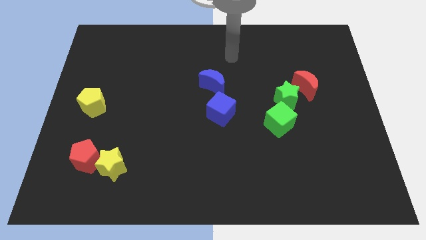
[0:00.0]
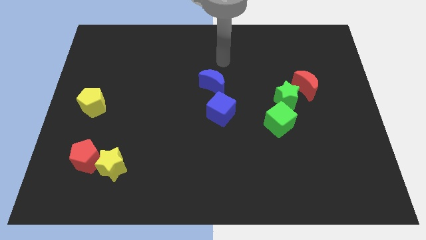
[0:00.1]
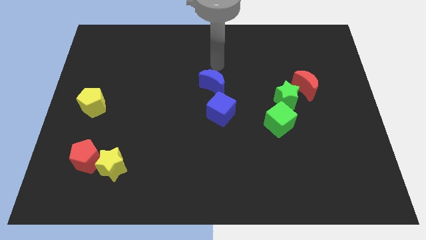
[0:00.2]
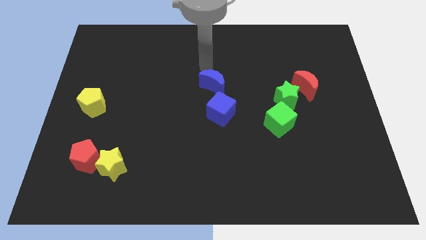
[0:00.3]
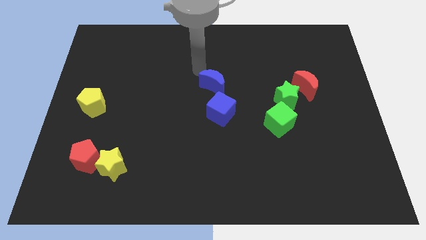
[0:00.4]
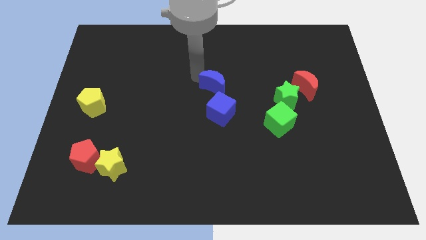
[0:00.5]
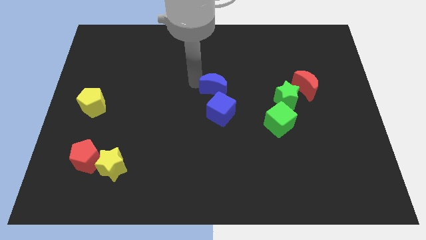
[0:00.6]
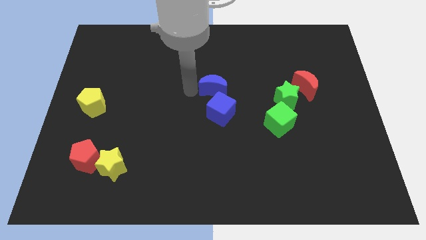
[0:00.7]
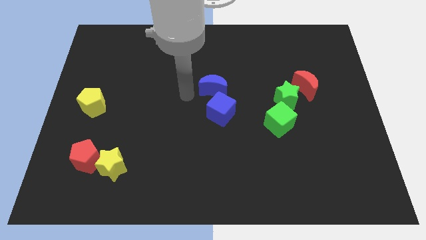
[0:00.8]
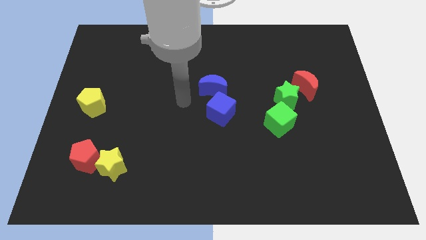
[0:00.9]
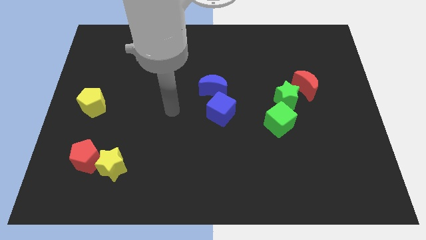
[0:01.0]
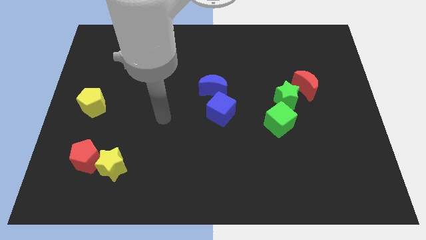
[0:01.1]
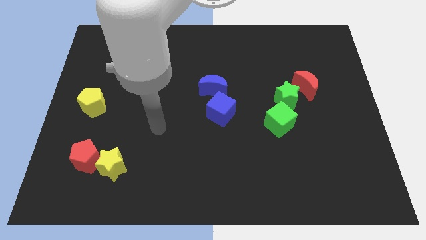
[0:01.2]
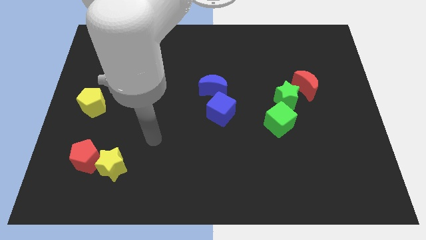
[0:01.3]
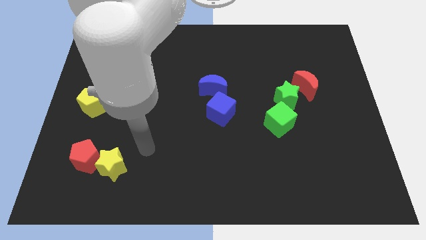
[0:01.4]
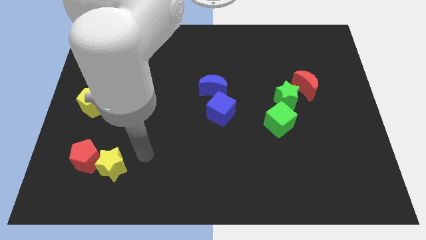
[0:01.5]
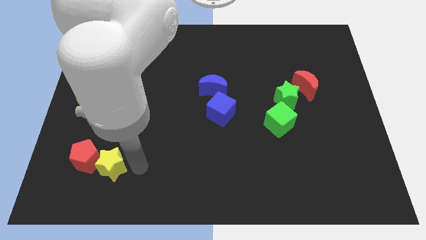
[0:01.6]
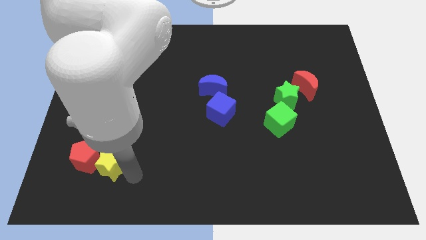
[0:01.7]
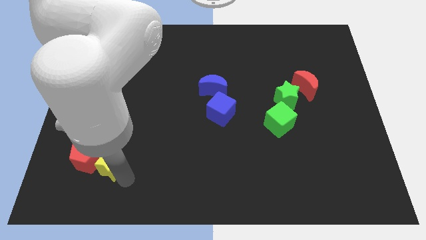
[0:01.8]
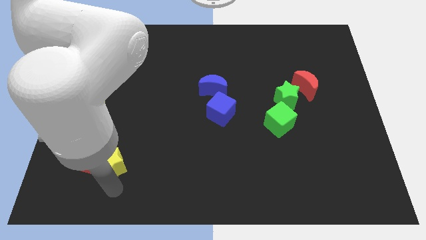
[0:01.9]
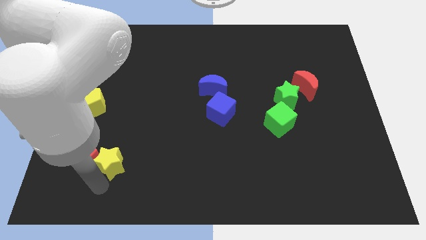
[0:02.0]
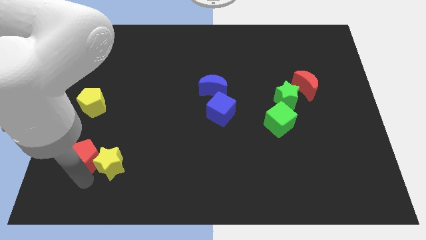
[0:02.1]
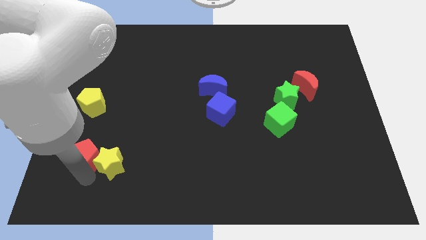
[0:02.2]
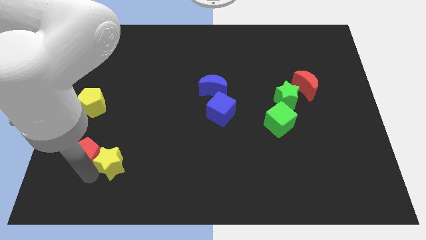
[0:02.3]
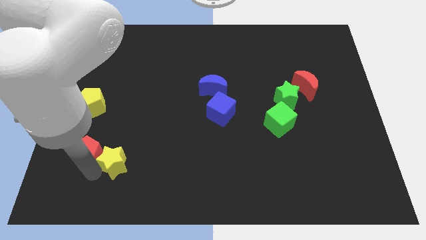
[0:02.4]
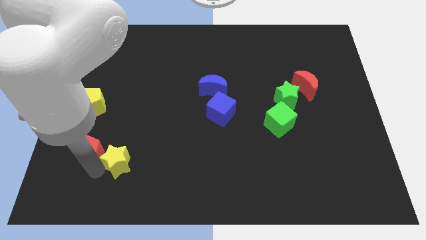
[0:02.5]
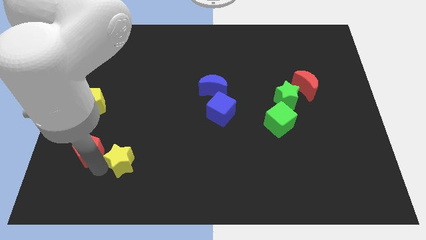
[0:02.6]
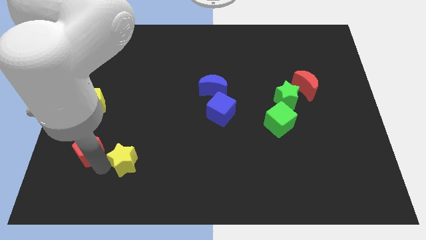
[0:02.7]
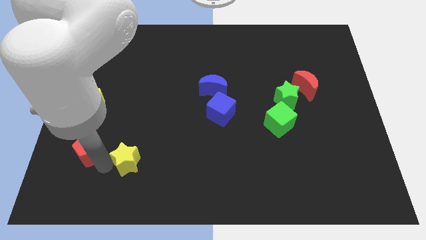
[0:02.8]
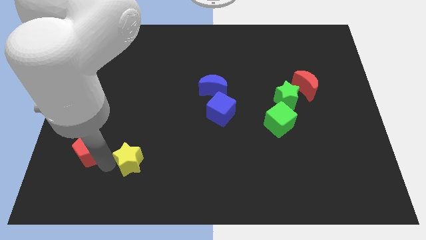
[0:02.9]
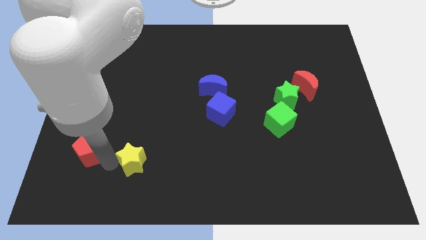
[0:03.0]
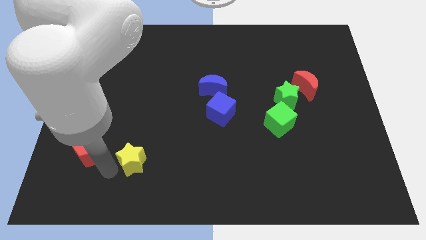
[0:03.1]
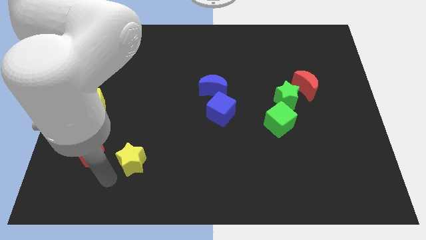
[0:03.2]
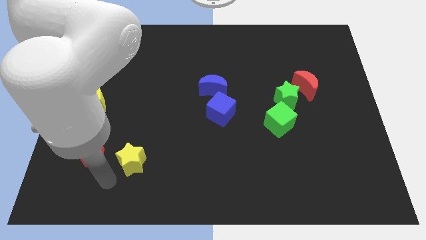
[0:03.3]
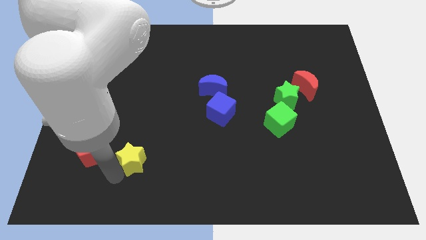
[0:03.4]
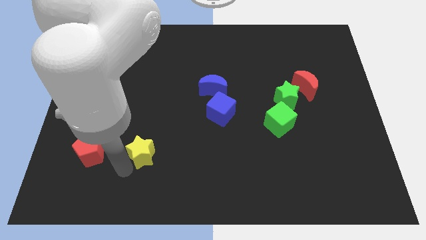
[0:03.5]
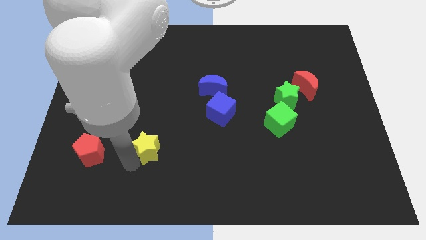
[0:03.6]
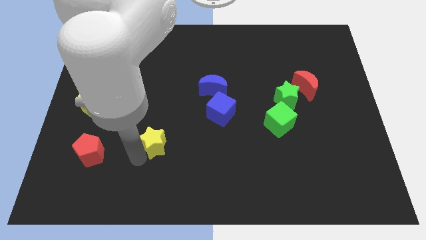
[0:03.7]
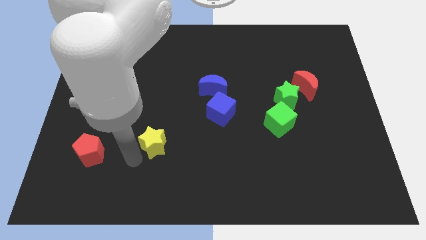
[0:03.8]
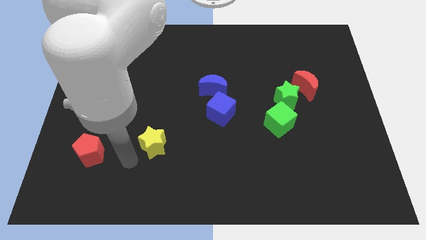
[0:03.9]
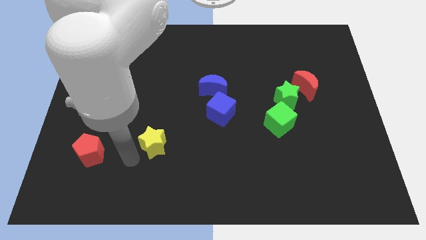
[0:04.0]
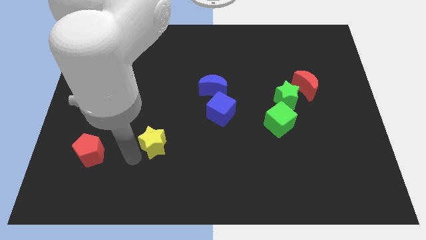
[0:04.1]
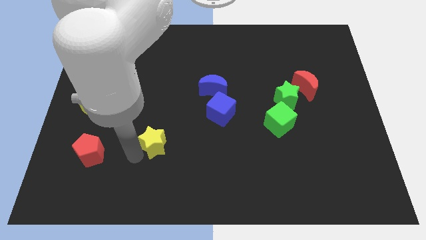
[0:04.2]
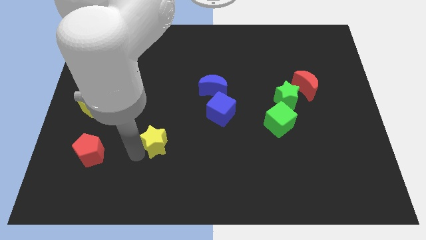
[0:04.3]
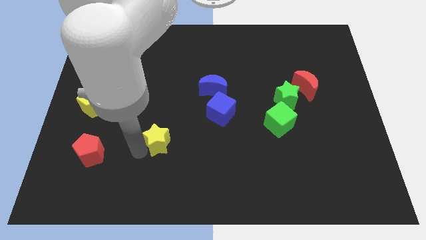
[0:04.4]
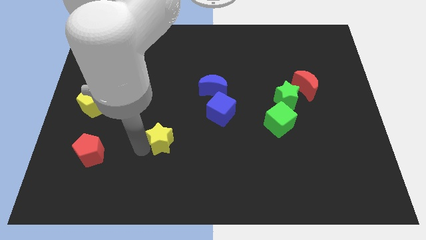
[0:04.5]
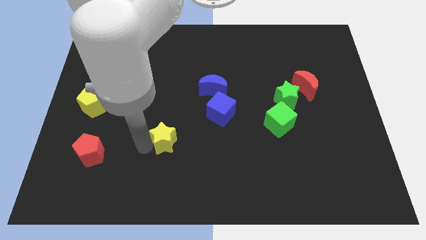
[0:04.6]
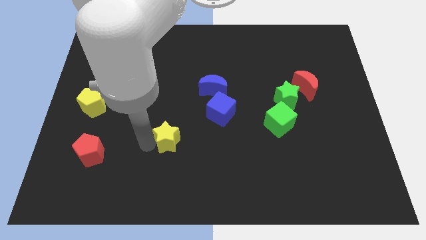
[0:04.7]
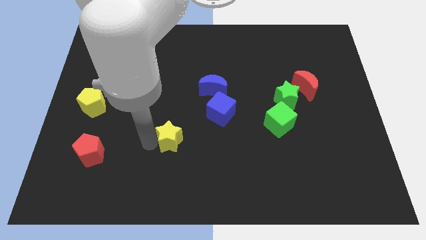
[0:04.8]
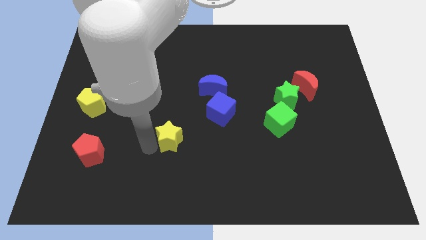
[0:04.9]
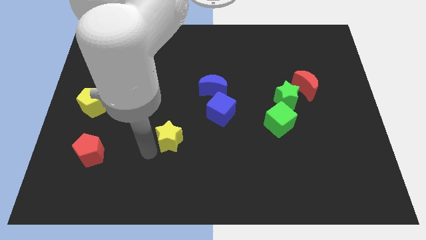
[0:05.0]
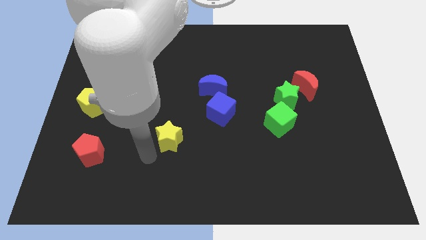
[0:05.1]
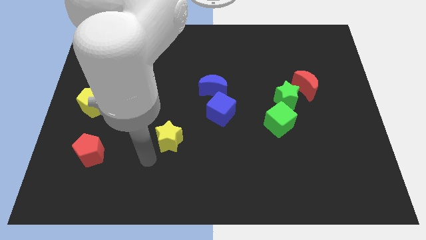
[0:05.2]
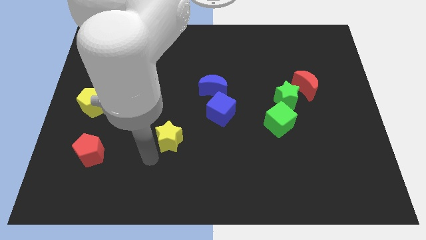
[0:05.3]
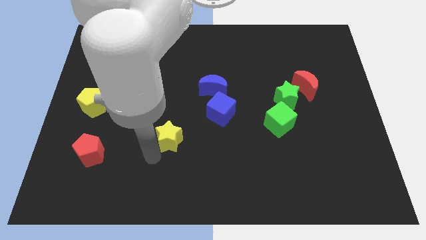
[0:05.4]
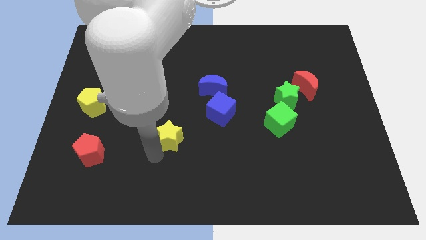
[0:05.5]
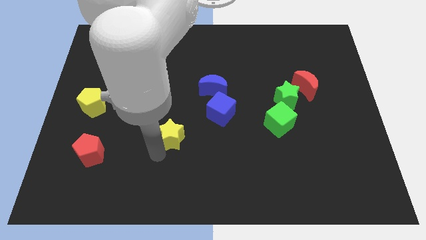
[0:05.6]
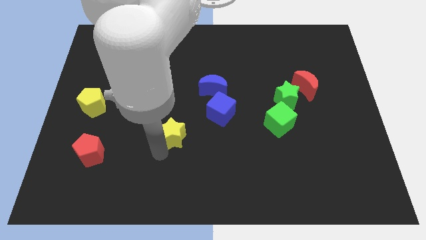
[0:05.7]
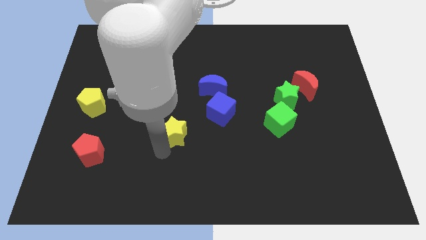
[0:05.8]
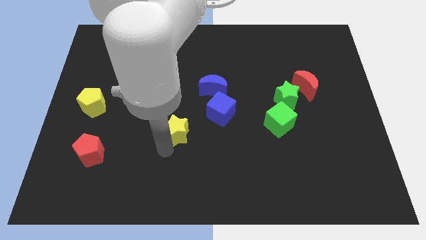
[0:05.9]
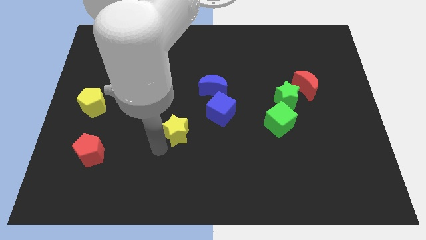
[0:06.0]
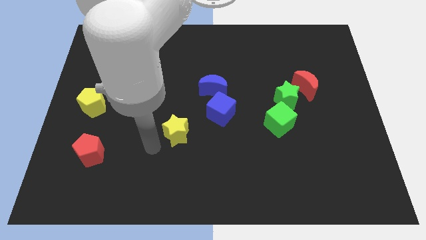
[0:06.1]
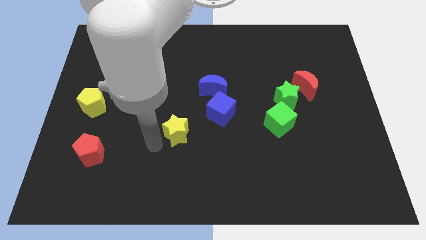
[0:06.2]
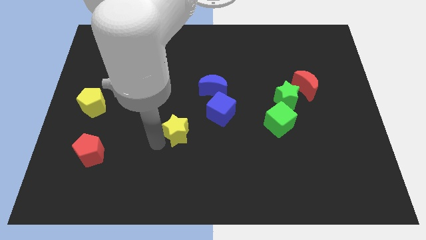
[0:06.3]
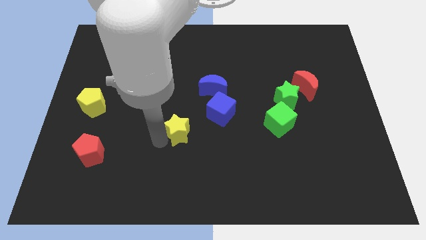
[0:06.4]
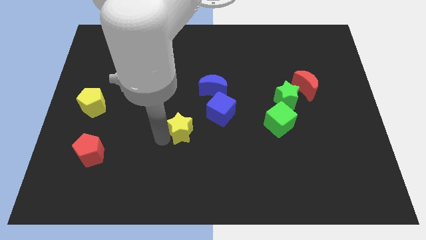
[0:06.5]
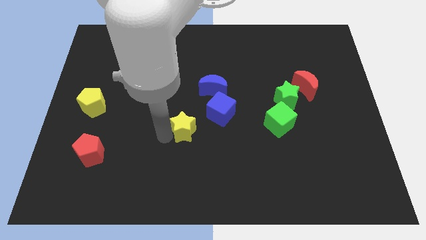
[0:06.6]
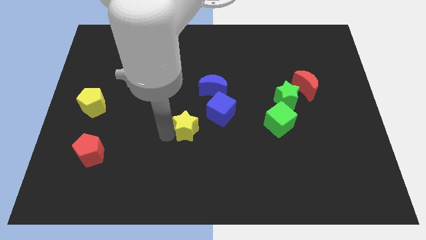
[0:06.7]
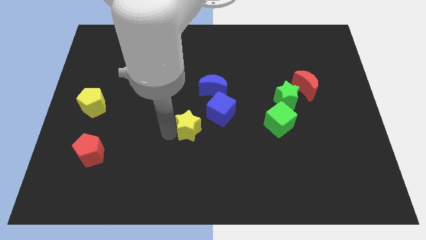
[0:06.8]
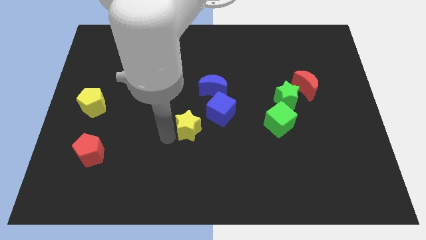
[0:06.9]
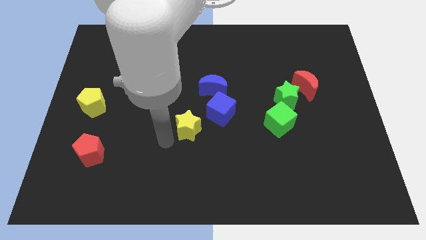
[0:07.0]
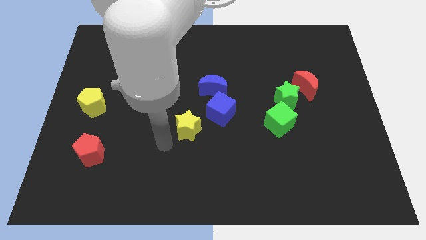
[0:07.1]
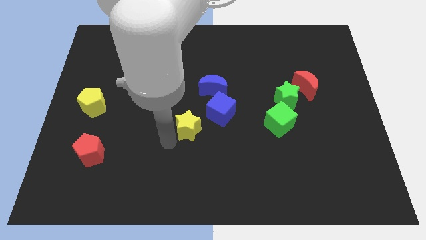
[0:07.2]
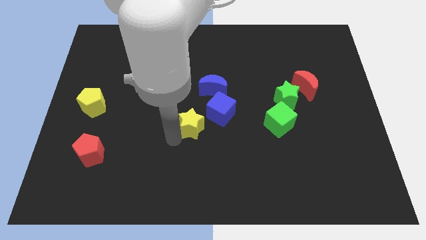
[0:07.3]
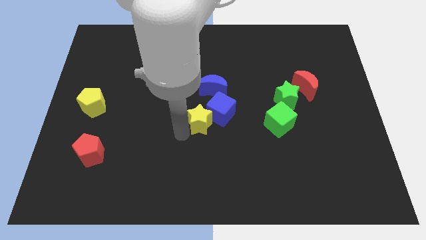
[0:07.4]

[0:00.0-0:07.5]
move the yellow star close to the blue cube
